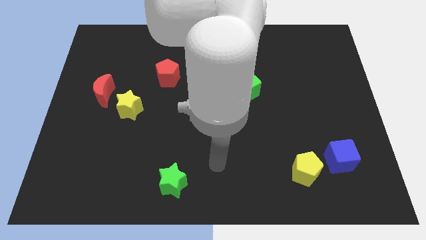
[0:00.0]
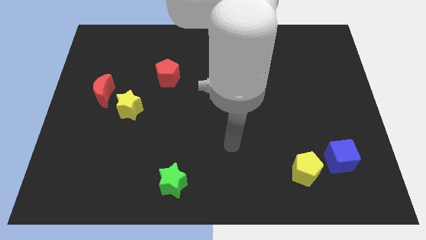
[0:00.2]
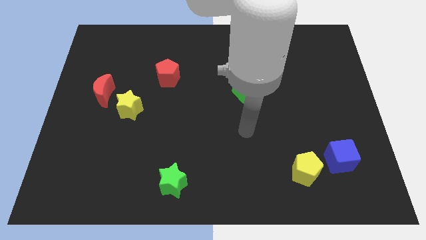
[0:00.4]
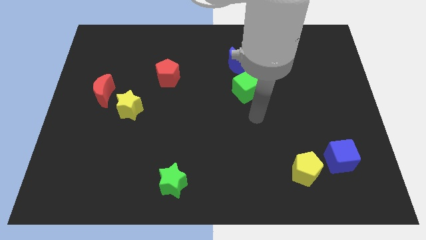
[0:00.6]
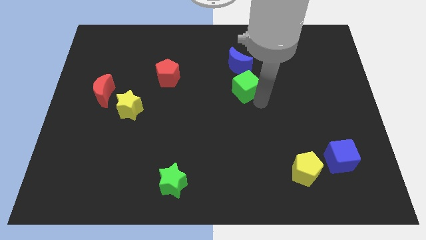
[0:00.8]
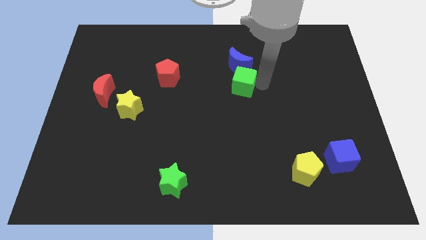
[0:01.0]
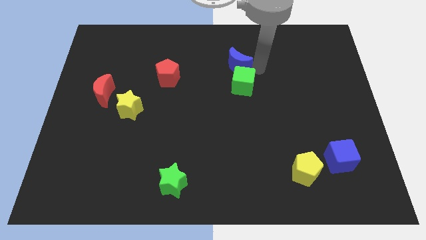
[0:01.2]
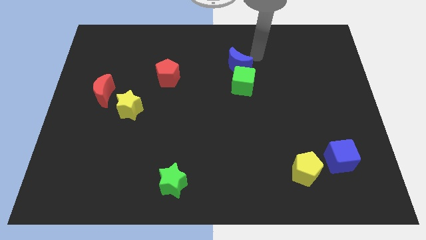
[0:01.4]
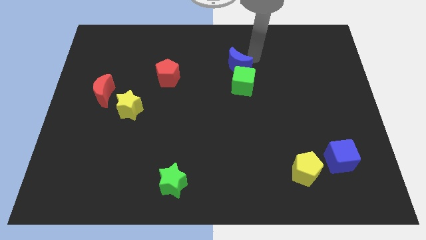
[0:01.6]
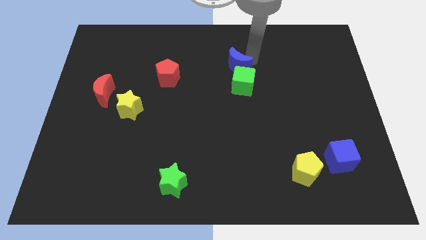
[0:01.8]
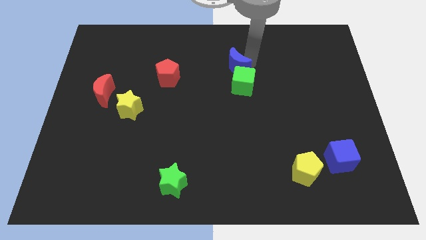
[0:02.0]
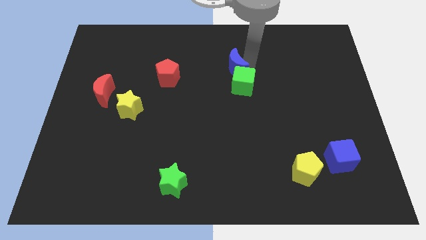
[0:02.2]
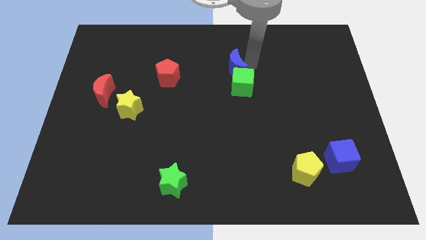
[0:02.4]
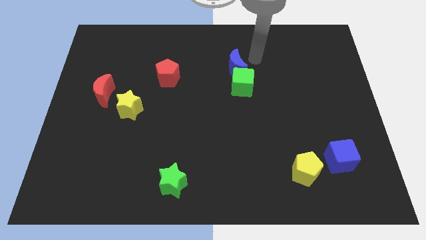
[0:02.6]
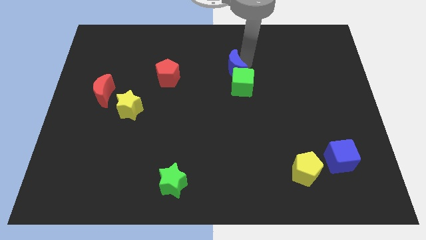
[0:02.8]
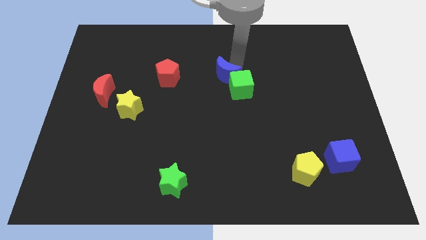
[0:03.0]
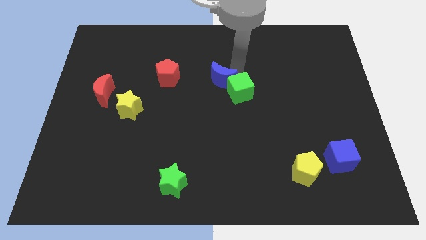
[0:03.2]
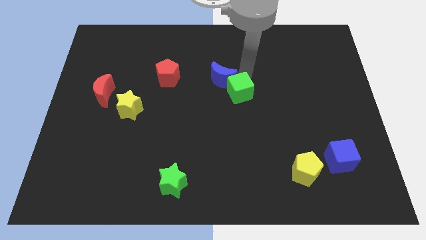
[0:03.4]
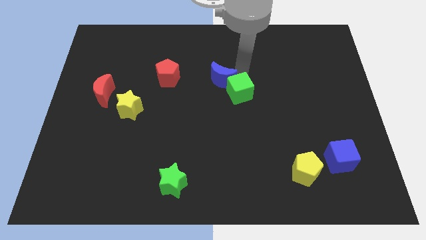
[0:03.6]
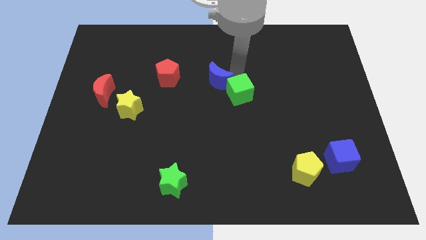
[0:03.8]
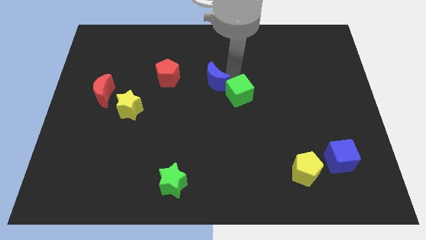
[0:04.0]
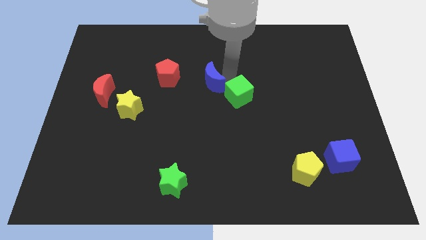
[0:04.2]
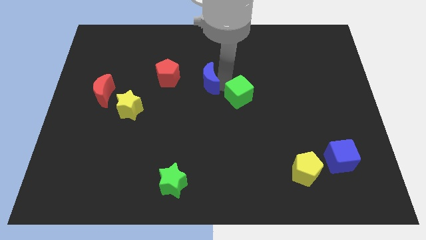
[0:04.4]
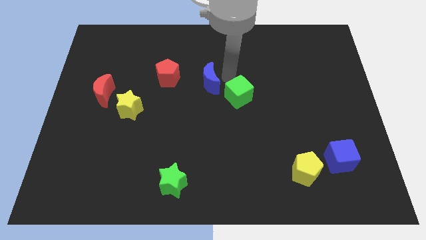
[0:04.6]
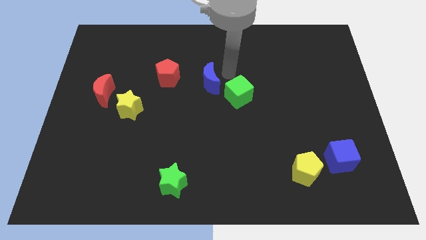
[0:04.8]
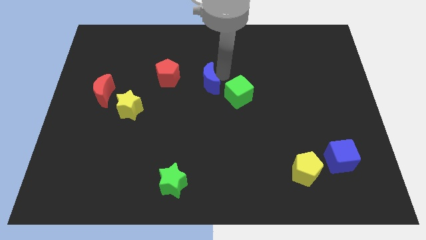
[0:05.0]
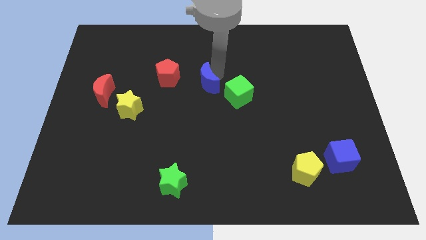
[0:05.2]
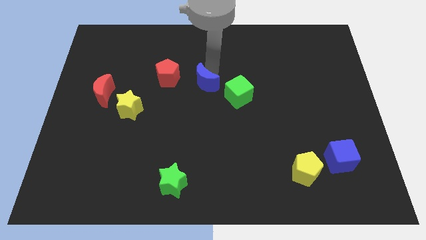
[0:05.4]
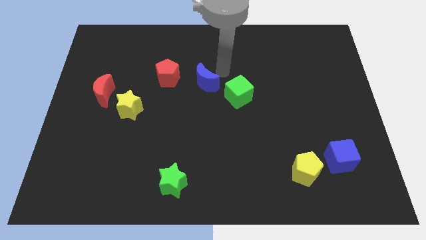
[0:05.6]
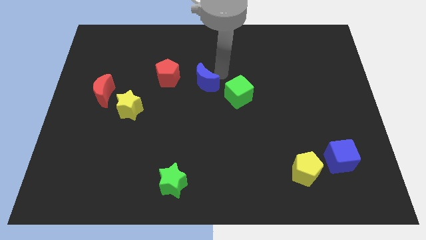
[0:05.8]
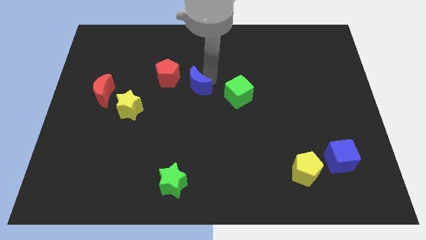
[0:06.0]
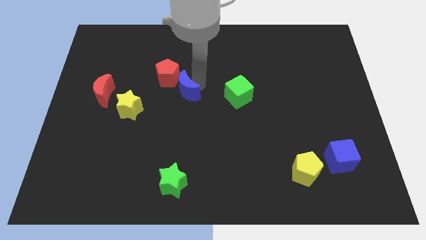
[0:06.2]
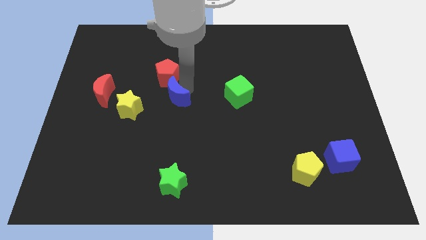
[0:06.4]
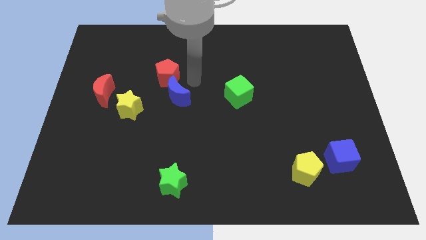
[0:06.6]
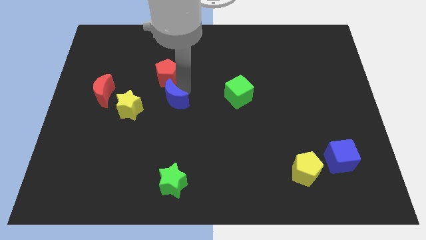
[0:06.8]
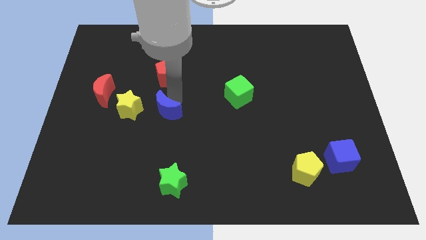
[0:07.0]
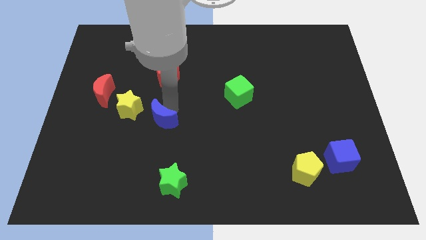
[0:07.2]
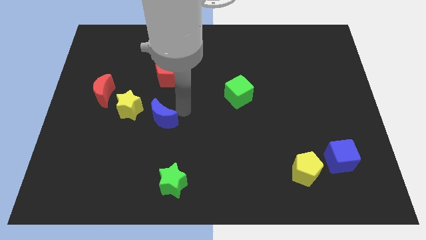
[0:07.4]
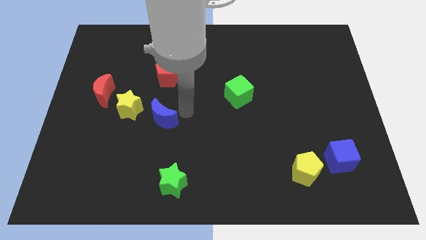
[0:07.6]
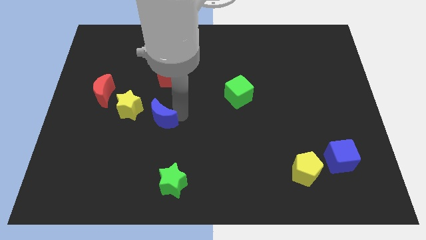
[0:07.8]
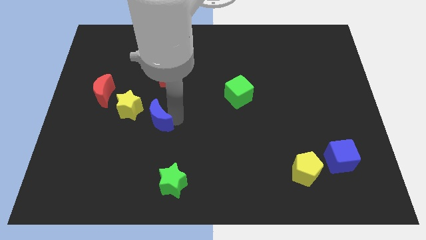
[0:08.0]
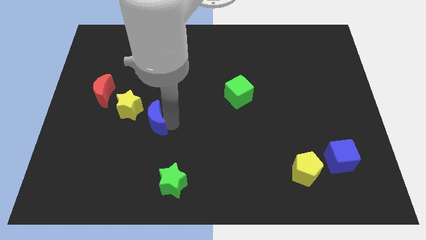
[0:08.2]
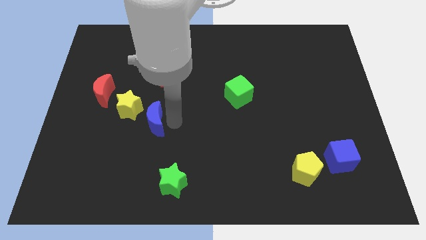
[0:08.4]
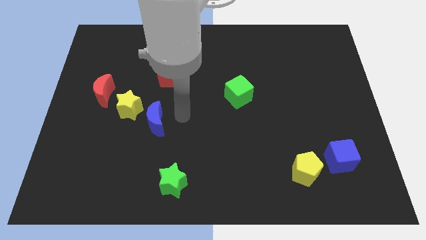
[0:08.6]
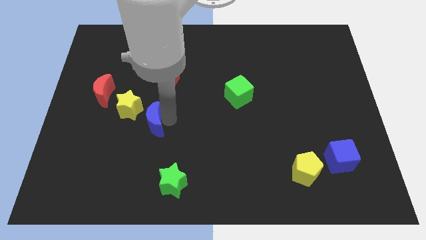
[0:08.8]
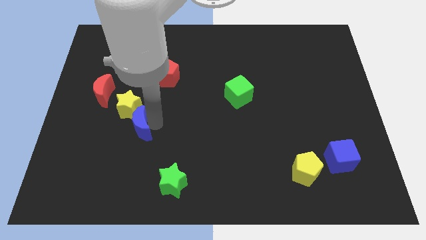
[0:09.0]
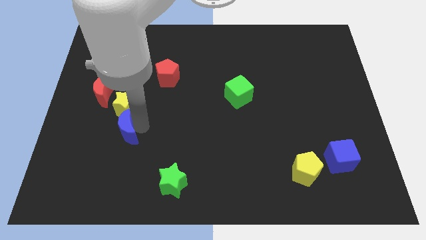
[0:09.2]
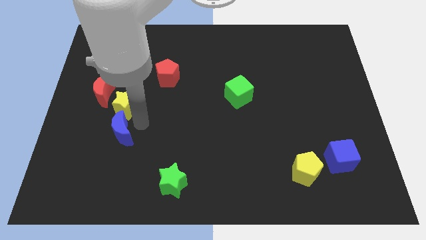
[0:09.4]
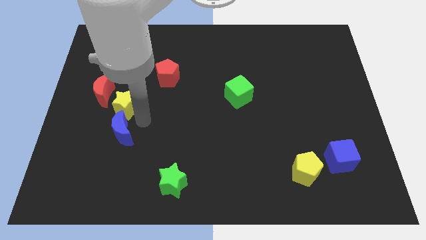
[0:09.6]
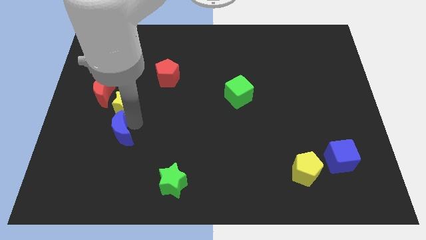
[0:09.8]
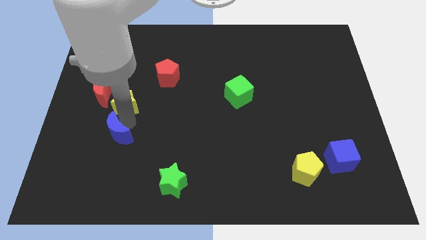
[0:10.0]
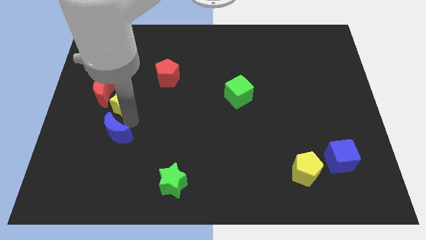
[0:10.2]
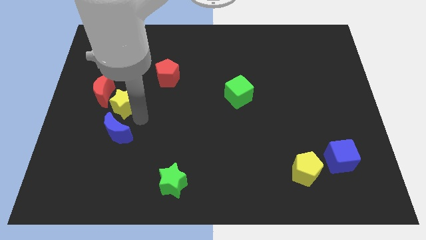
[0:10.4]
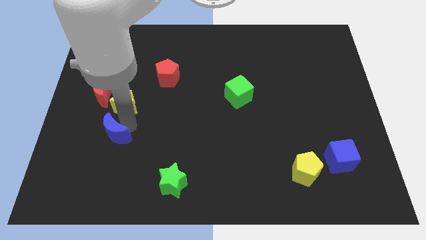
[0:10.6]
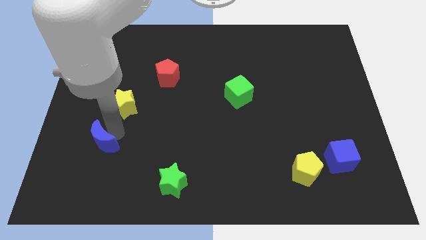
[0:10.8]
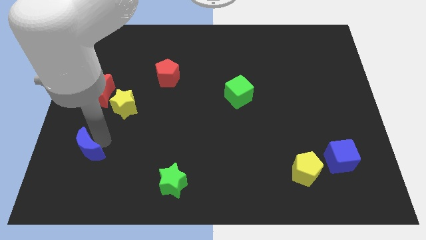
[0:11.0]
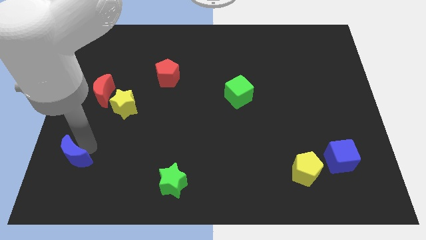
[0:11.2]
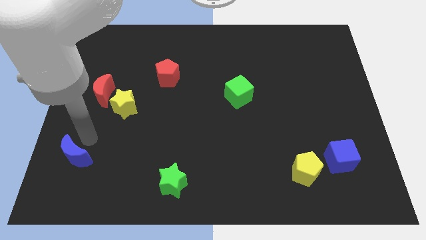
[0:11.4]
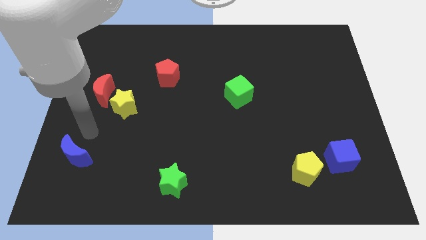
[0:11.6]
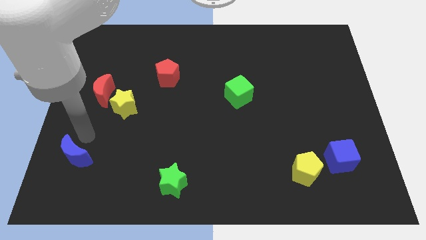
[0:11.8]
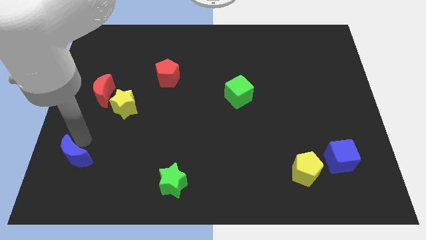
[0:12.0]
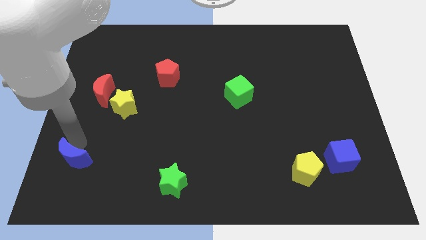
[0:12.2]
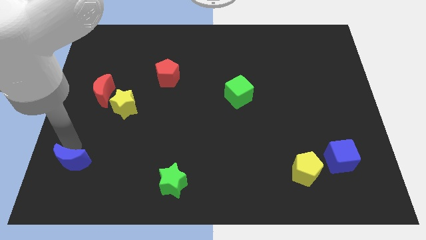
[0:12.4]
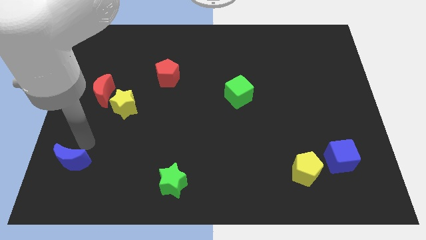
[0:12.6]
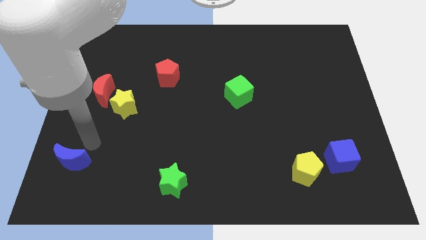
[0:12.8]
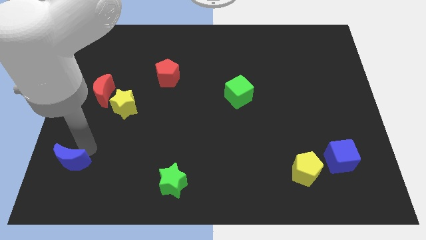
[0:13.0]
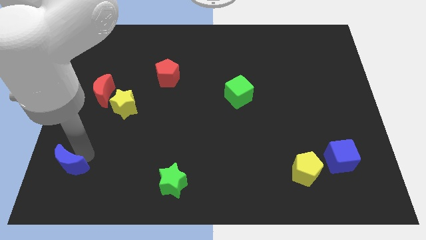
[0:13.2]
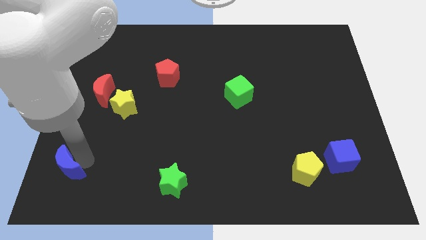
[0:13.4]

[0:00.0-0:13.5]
put the blue moon to the bottom left
